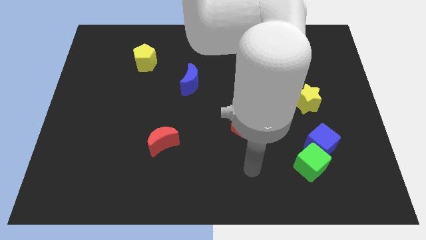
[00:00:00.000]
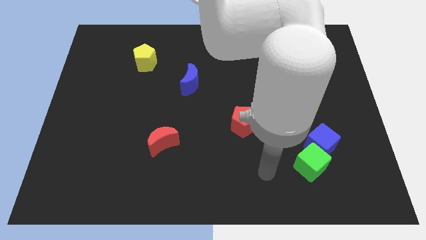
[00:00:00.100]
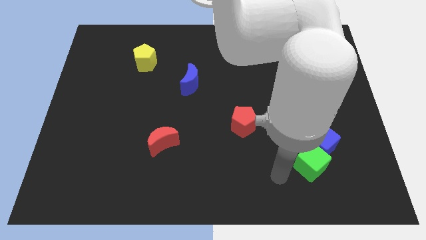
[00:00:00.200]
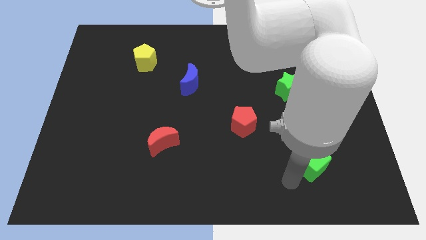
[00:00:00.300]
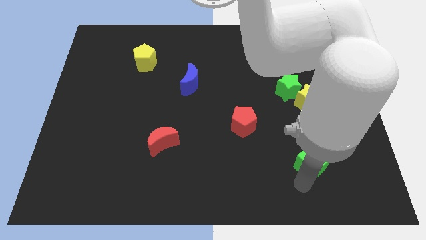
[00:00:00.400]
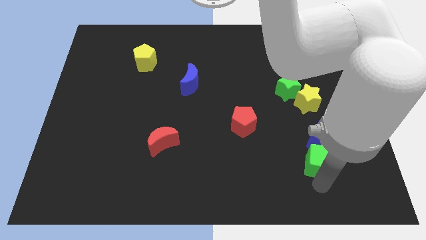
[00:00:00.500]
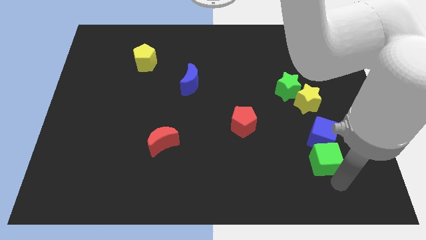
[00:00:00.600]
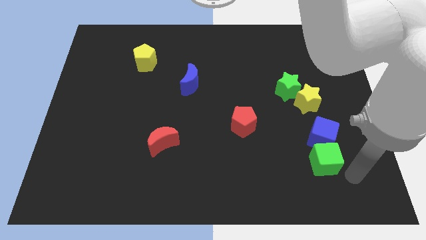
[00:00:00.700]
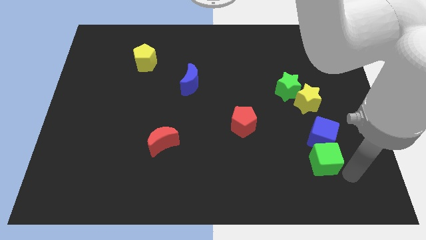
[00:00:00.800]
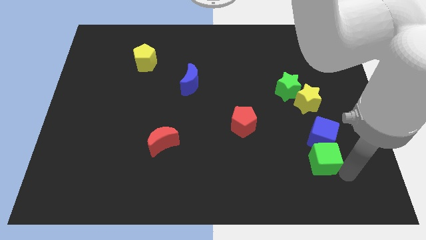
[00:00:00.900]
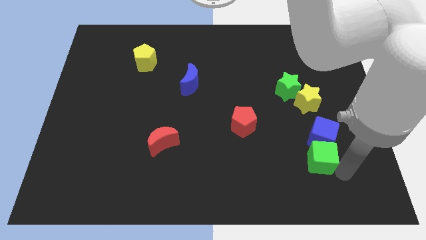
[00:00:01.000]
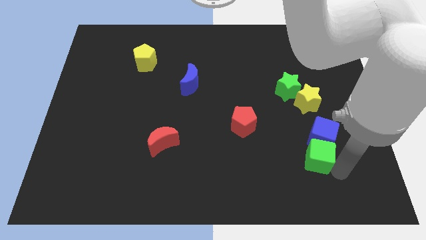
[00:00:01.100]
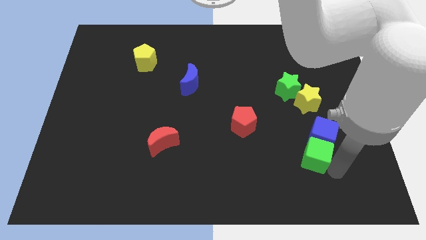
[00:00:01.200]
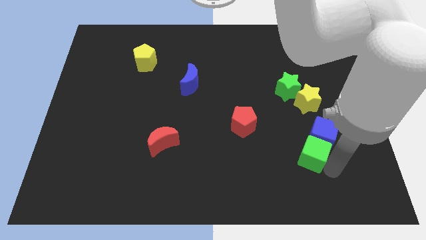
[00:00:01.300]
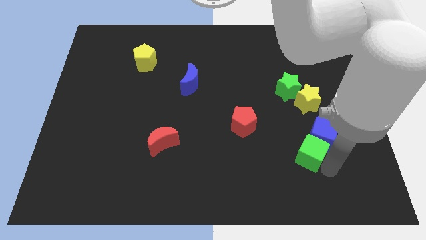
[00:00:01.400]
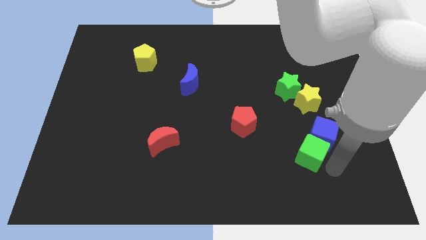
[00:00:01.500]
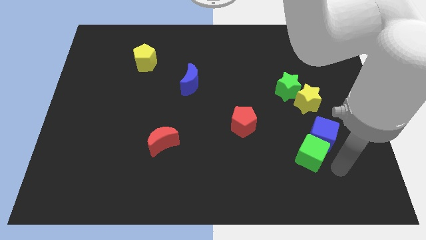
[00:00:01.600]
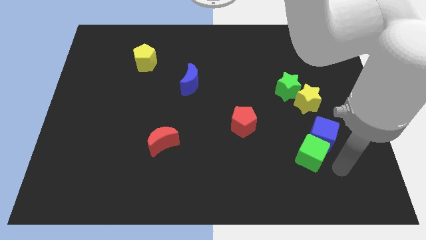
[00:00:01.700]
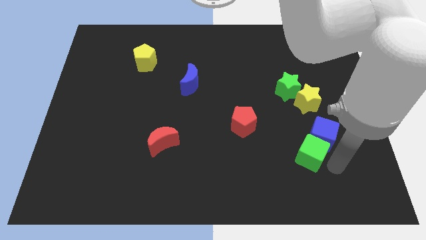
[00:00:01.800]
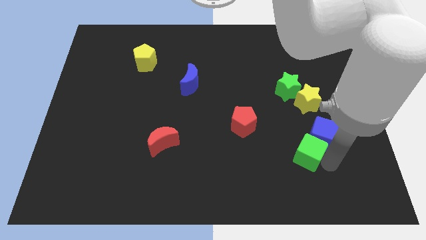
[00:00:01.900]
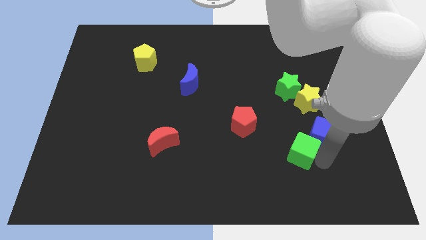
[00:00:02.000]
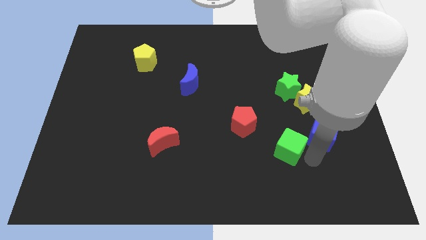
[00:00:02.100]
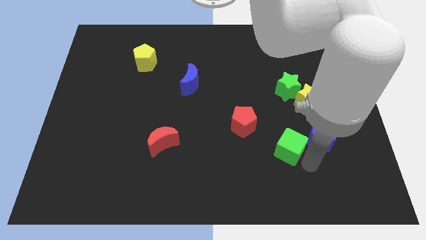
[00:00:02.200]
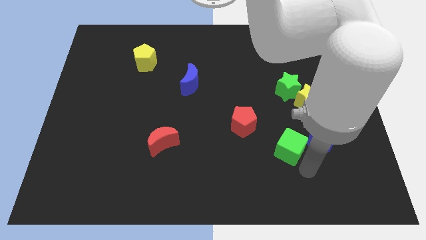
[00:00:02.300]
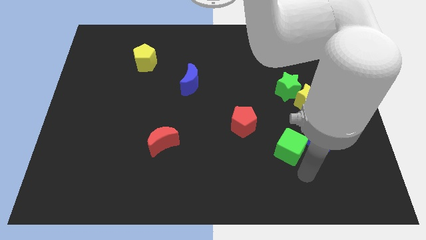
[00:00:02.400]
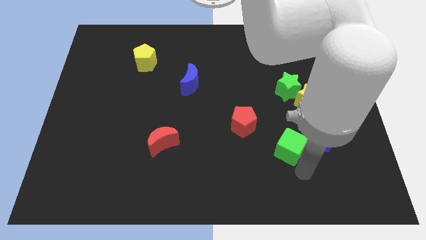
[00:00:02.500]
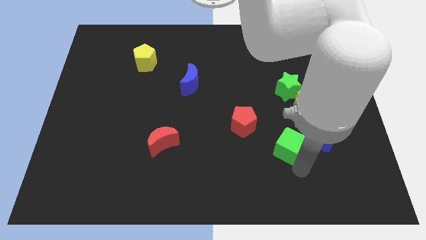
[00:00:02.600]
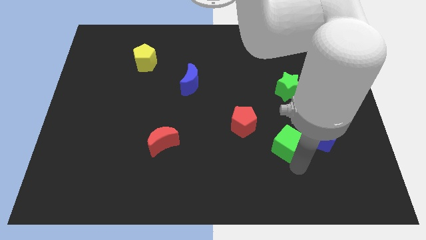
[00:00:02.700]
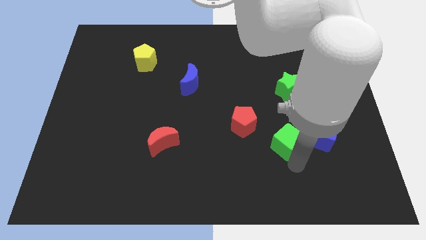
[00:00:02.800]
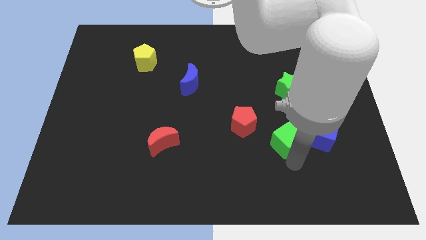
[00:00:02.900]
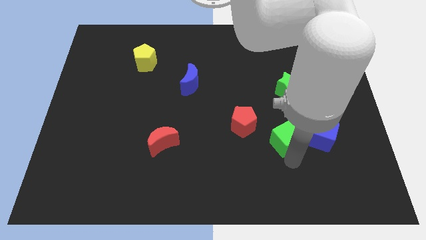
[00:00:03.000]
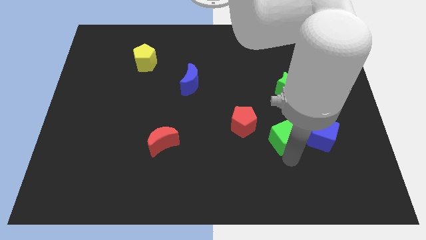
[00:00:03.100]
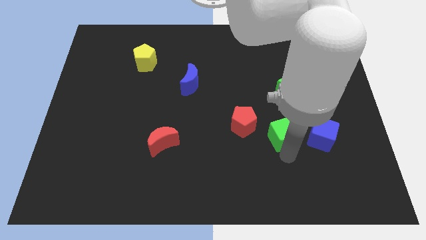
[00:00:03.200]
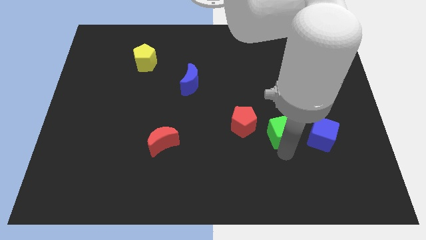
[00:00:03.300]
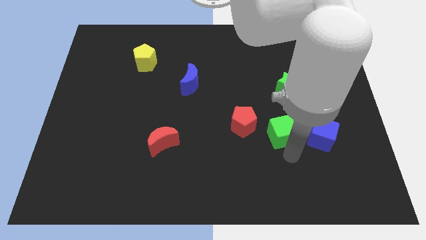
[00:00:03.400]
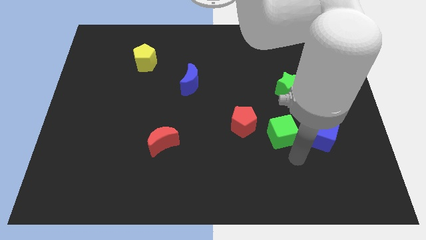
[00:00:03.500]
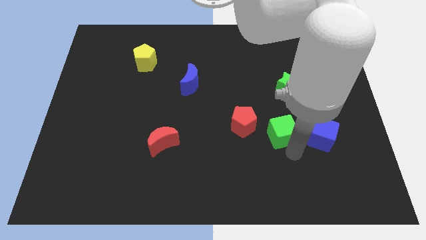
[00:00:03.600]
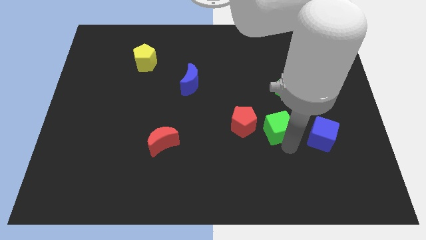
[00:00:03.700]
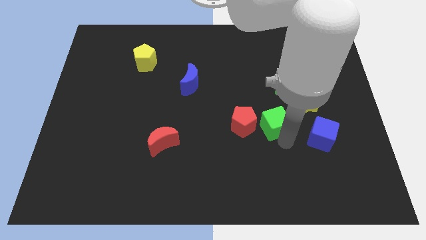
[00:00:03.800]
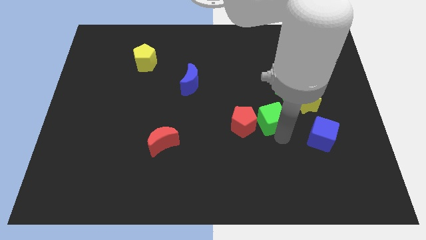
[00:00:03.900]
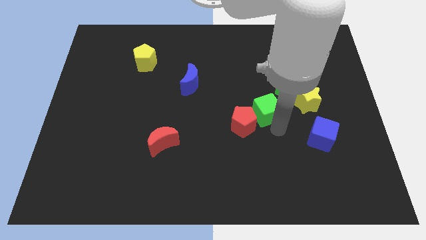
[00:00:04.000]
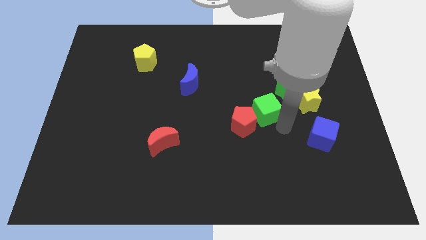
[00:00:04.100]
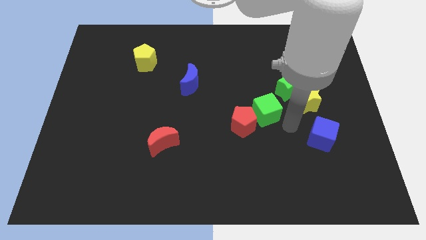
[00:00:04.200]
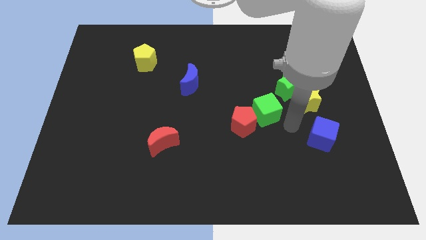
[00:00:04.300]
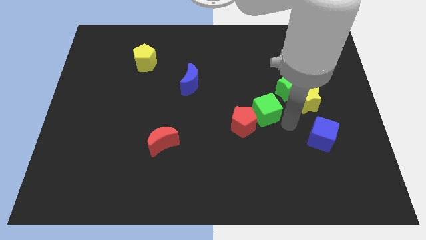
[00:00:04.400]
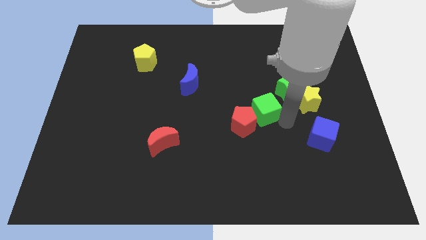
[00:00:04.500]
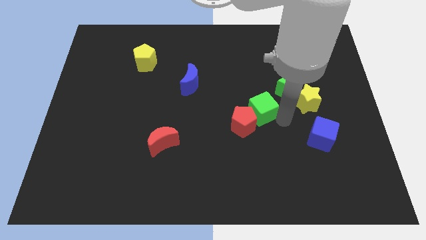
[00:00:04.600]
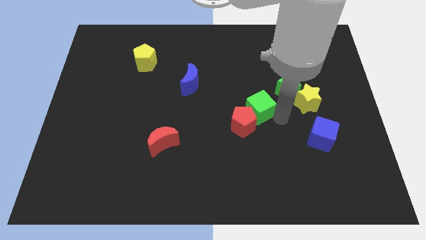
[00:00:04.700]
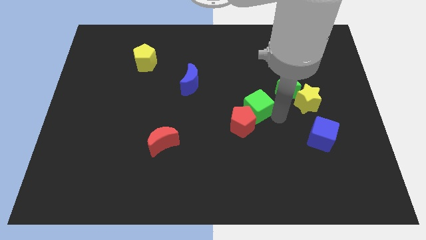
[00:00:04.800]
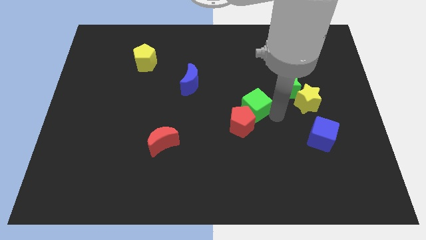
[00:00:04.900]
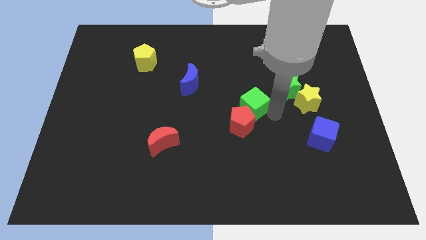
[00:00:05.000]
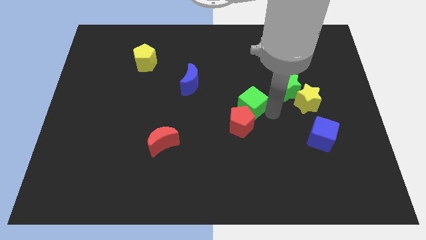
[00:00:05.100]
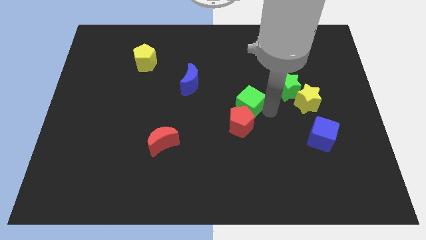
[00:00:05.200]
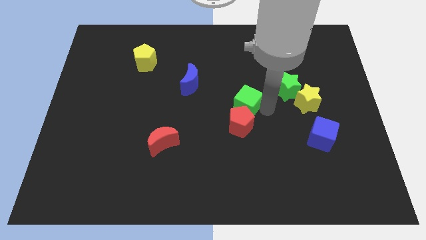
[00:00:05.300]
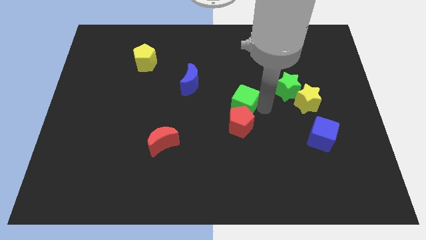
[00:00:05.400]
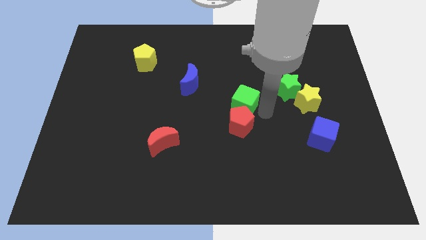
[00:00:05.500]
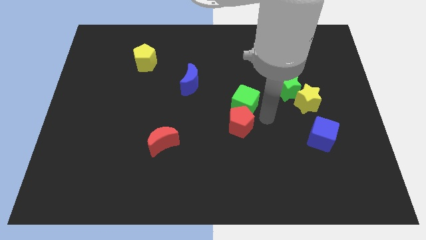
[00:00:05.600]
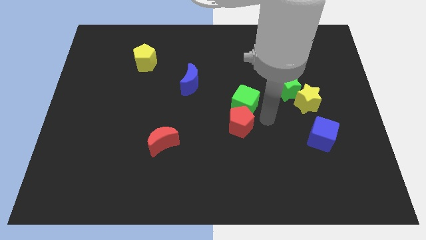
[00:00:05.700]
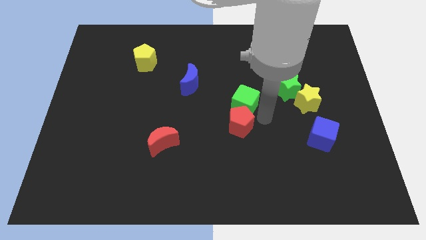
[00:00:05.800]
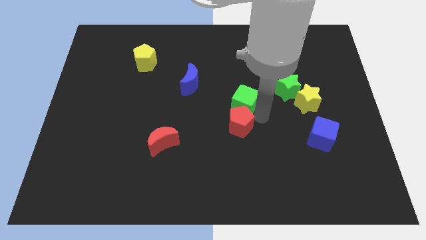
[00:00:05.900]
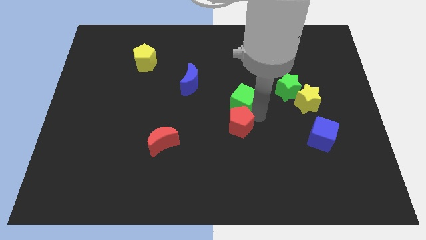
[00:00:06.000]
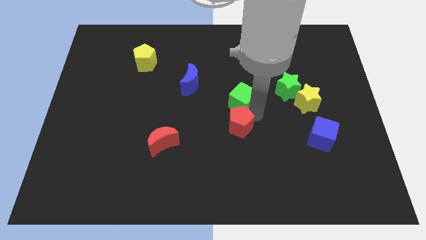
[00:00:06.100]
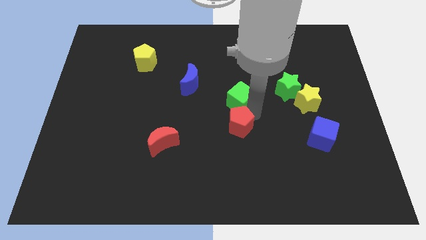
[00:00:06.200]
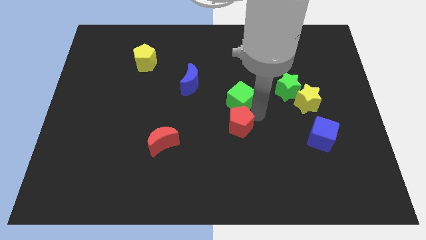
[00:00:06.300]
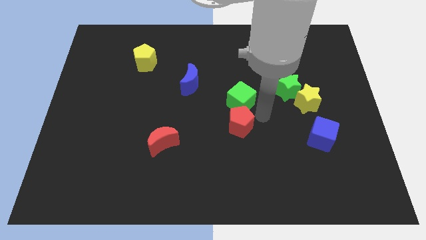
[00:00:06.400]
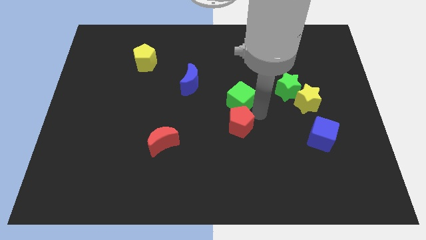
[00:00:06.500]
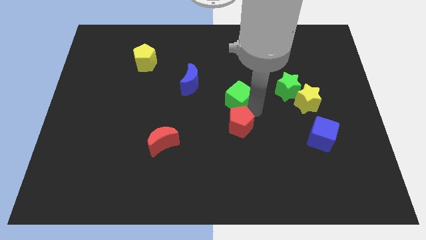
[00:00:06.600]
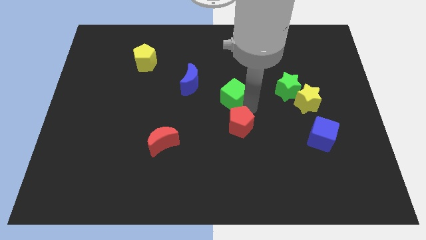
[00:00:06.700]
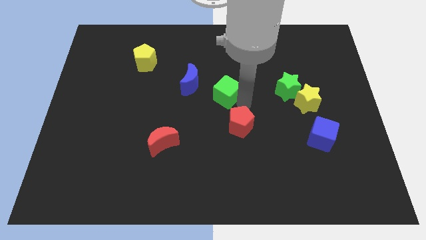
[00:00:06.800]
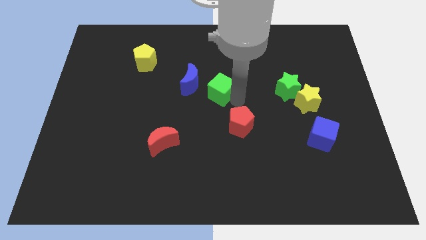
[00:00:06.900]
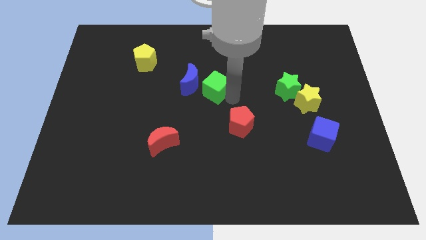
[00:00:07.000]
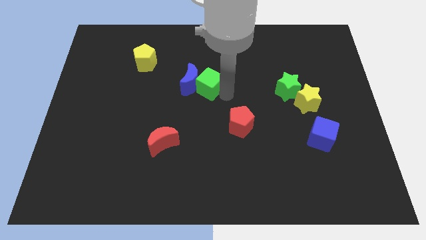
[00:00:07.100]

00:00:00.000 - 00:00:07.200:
push the green cube to the blue moon
